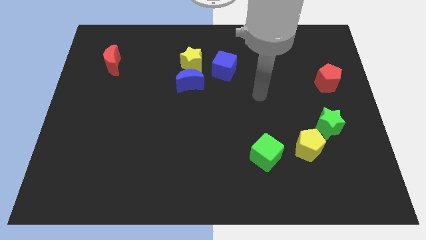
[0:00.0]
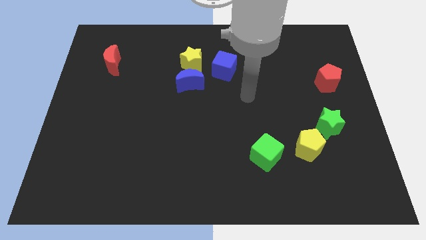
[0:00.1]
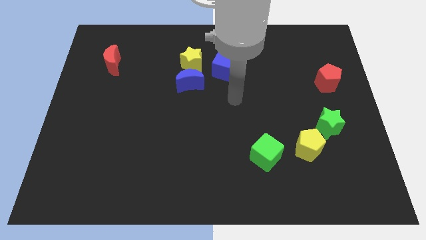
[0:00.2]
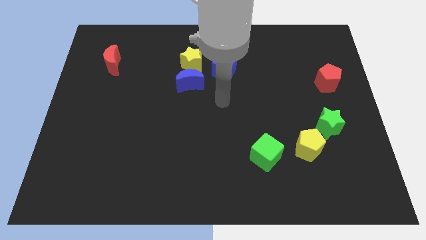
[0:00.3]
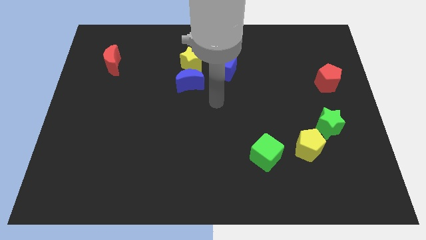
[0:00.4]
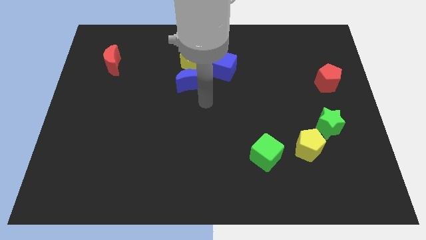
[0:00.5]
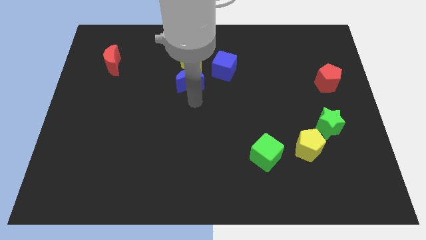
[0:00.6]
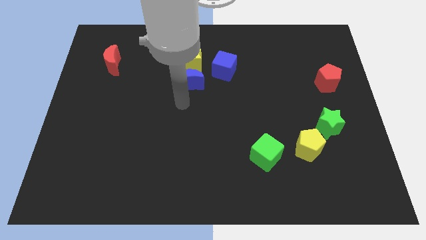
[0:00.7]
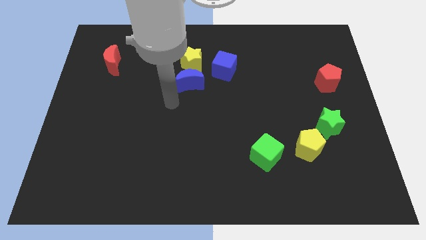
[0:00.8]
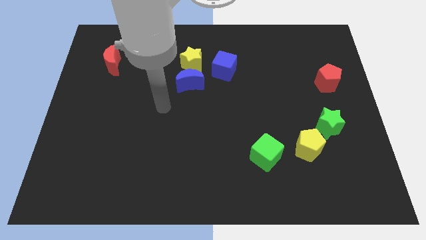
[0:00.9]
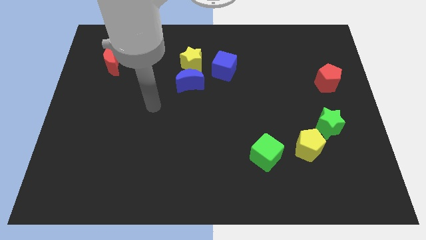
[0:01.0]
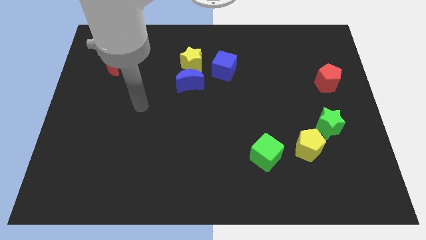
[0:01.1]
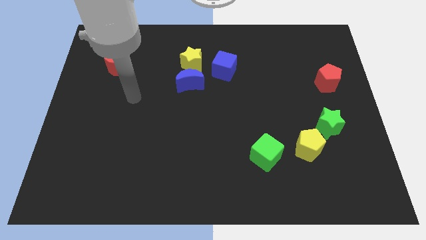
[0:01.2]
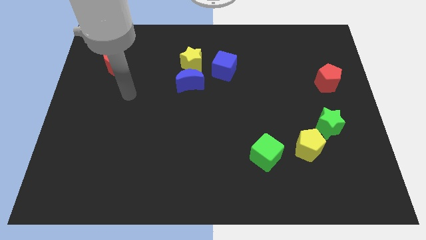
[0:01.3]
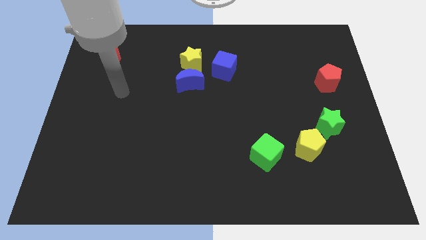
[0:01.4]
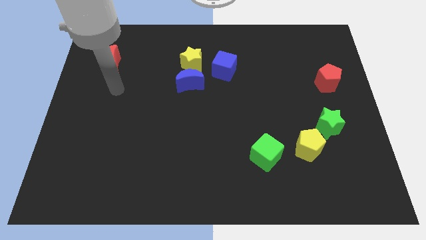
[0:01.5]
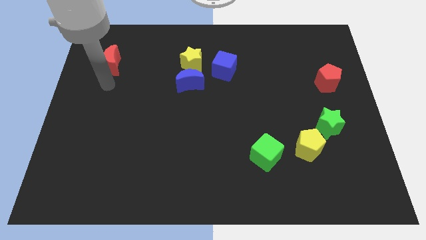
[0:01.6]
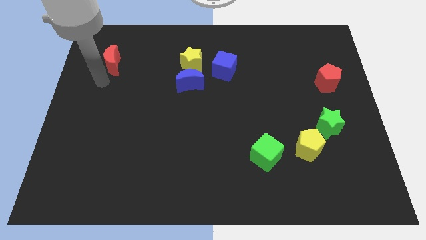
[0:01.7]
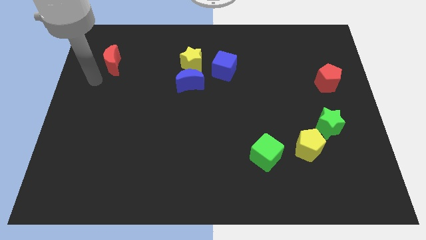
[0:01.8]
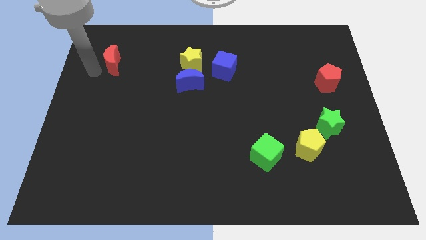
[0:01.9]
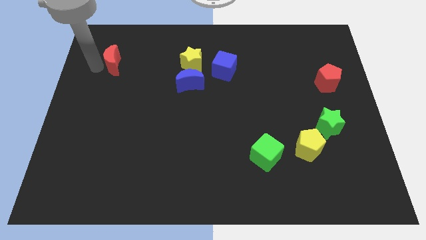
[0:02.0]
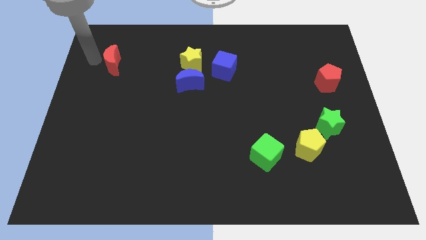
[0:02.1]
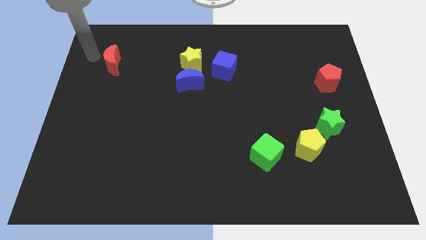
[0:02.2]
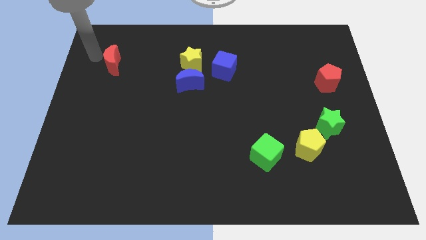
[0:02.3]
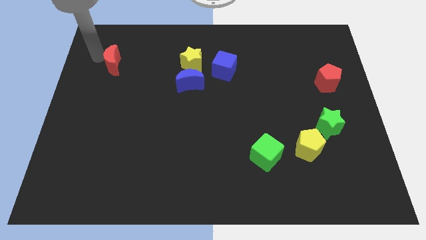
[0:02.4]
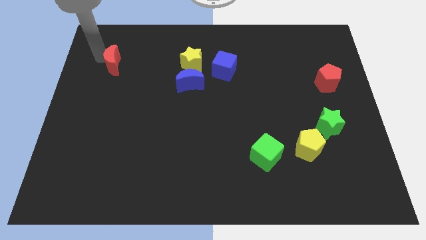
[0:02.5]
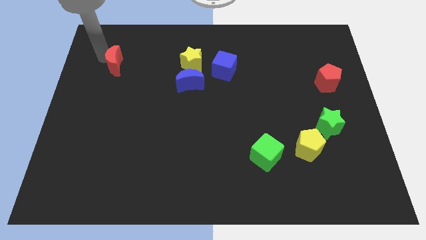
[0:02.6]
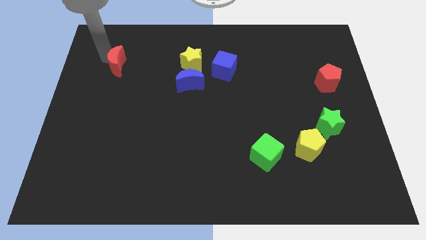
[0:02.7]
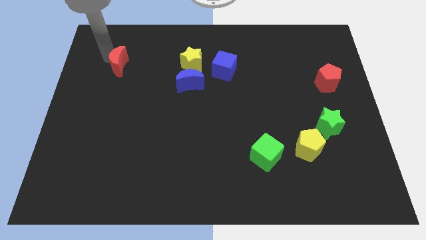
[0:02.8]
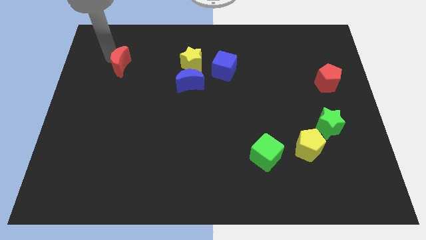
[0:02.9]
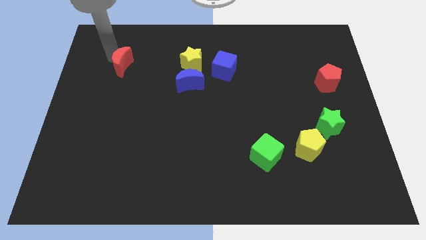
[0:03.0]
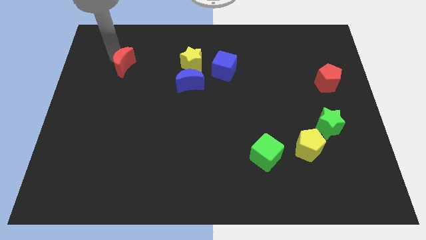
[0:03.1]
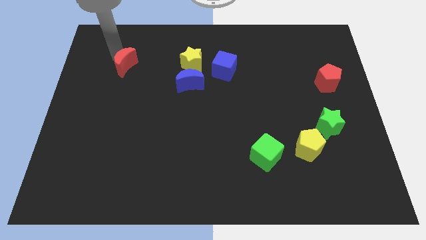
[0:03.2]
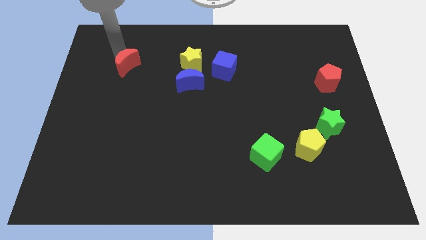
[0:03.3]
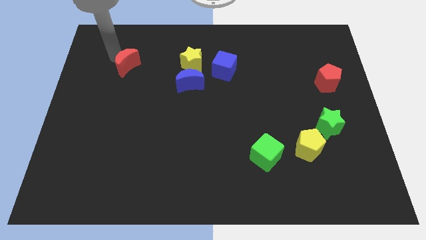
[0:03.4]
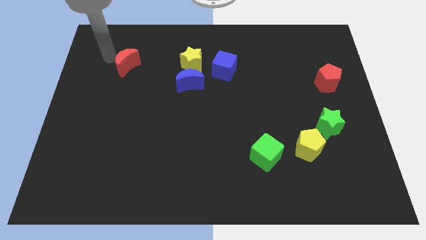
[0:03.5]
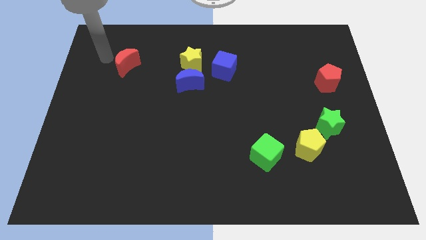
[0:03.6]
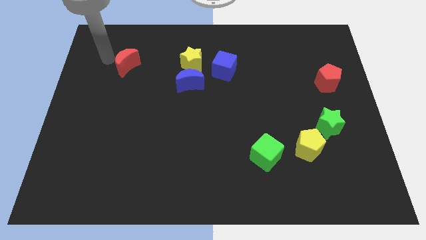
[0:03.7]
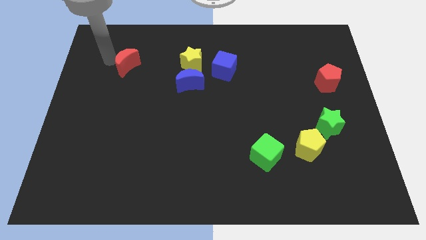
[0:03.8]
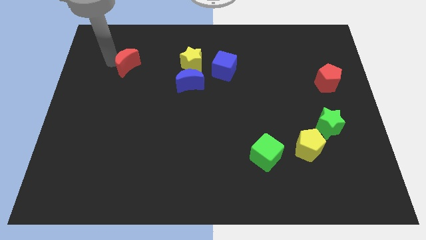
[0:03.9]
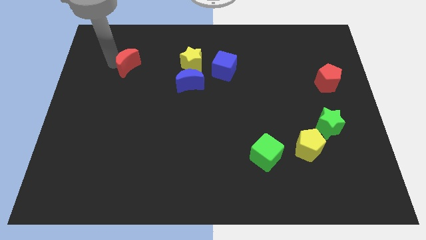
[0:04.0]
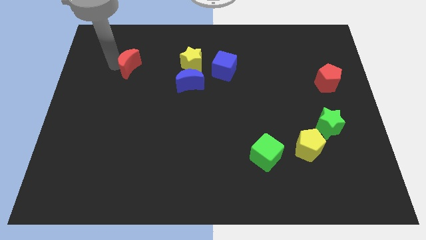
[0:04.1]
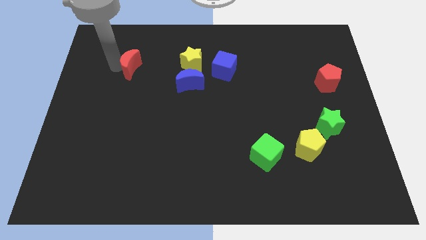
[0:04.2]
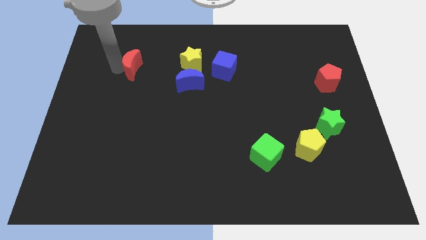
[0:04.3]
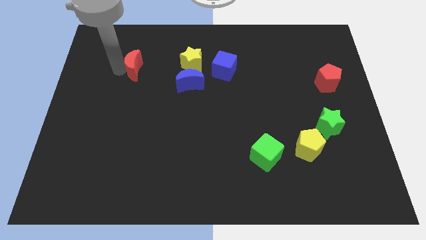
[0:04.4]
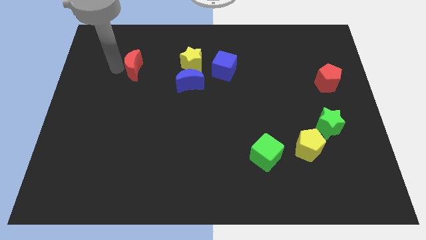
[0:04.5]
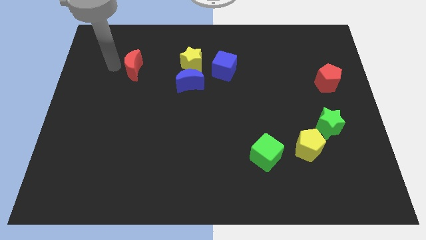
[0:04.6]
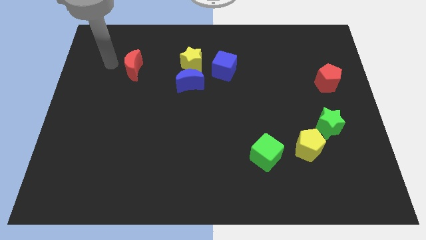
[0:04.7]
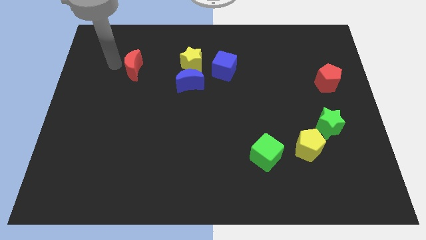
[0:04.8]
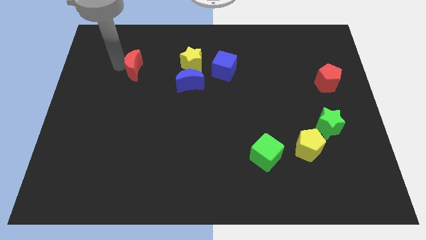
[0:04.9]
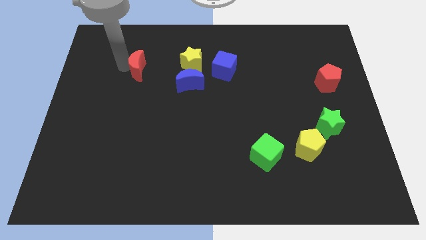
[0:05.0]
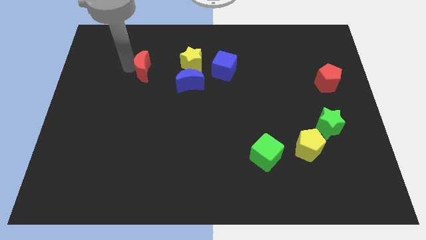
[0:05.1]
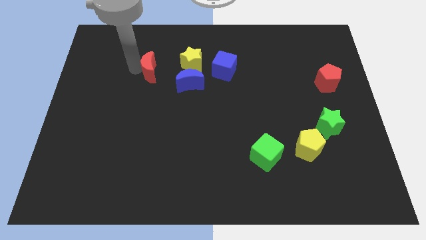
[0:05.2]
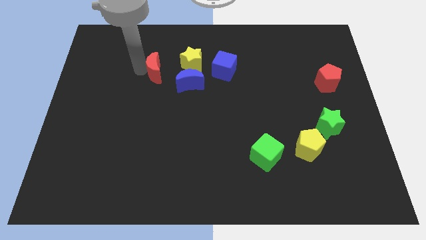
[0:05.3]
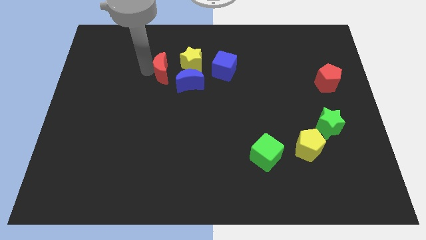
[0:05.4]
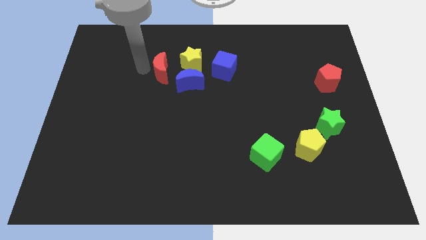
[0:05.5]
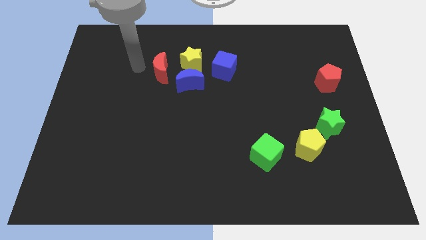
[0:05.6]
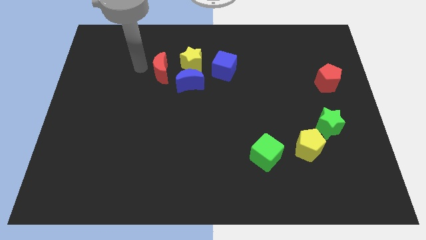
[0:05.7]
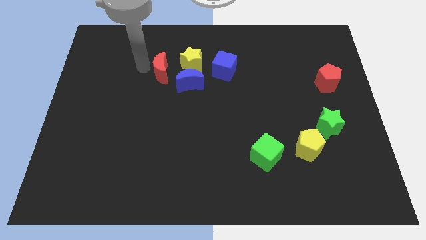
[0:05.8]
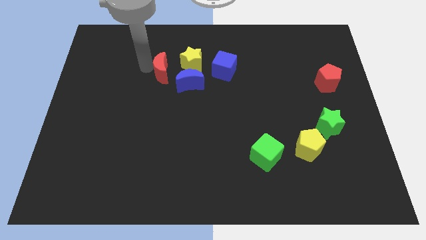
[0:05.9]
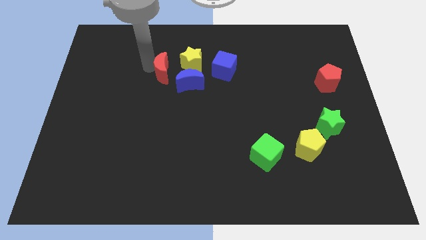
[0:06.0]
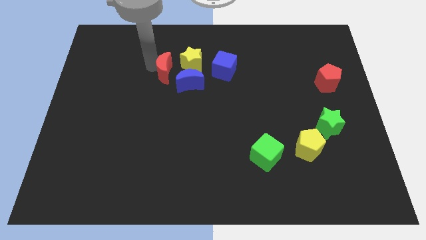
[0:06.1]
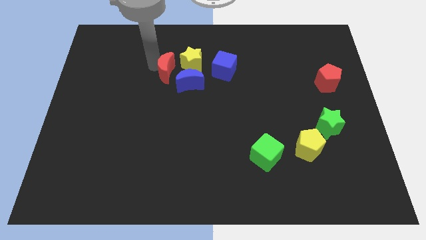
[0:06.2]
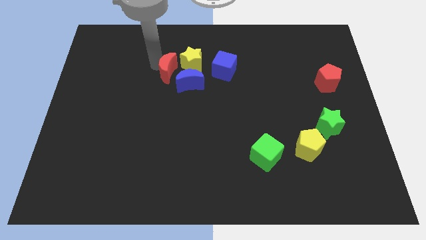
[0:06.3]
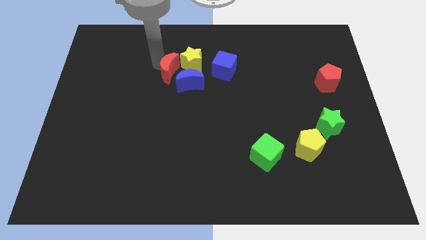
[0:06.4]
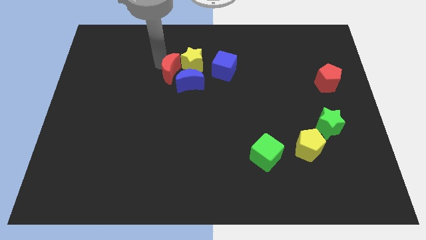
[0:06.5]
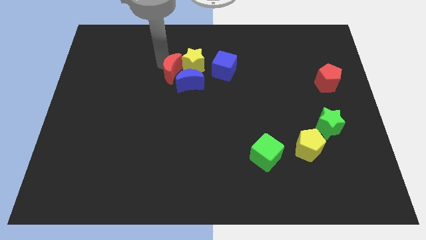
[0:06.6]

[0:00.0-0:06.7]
put the red moon to the blue moon
